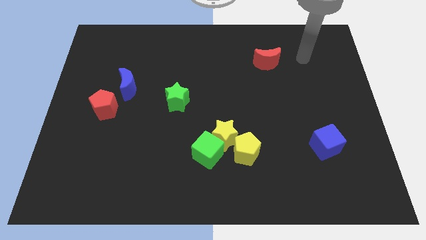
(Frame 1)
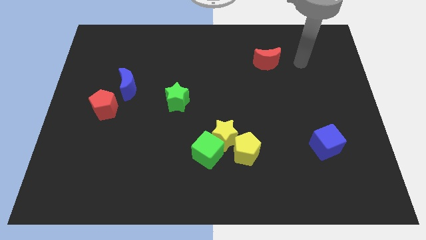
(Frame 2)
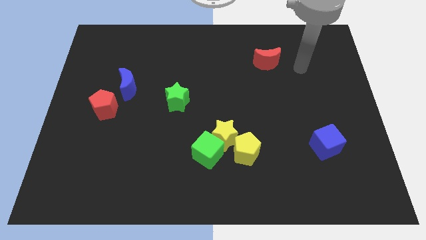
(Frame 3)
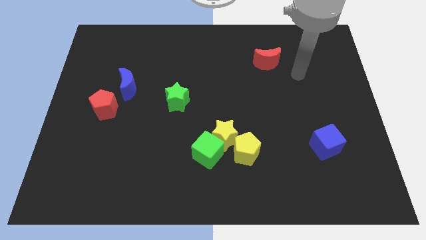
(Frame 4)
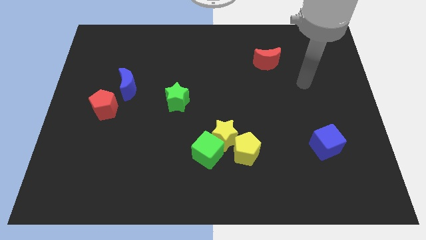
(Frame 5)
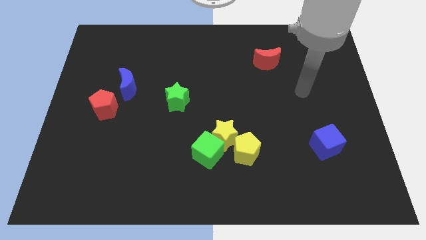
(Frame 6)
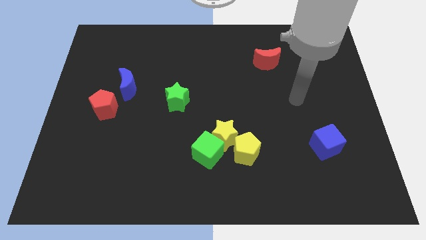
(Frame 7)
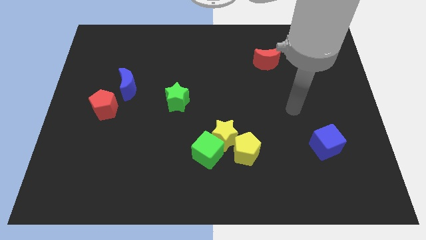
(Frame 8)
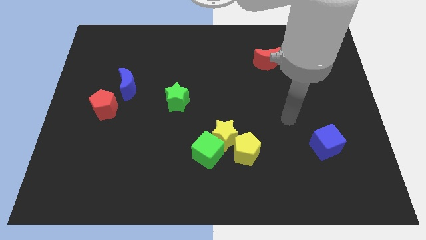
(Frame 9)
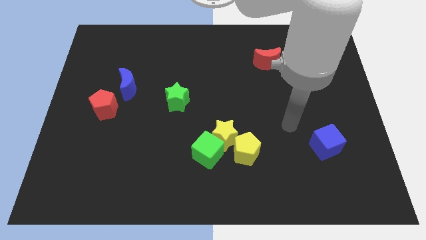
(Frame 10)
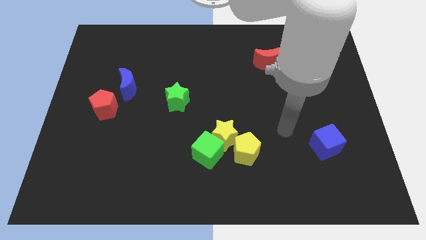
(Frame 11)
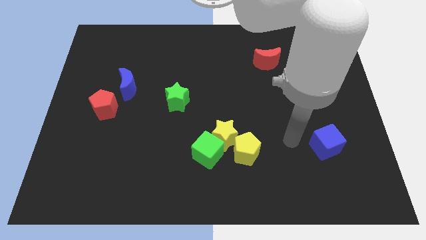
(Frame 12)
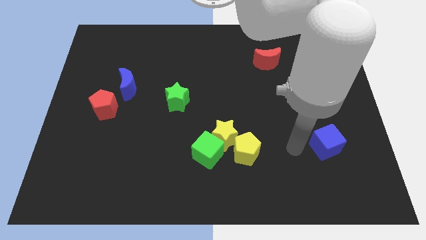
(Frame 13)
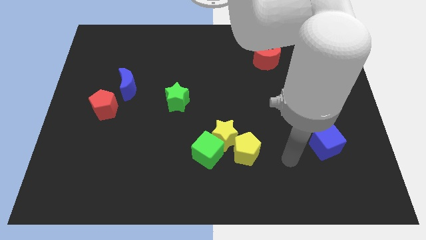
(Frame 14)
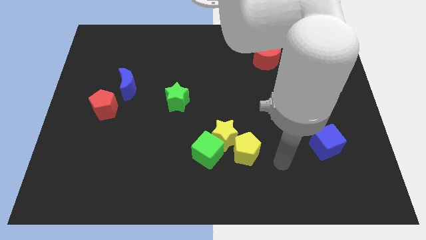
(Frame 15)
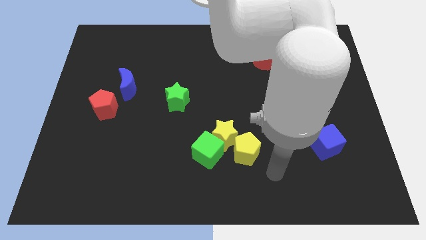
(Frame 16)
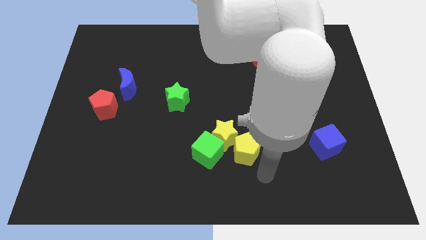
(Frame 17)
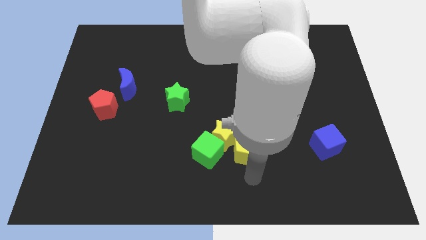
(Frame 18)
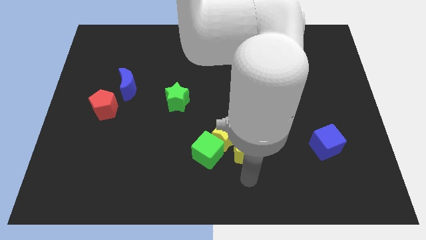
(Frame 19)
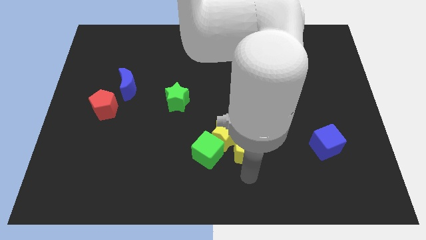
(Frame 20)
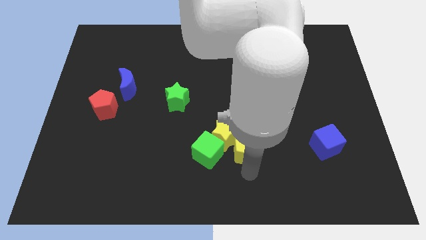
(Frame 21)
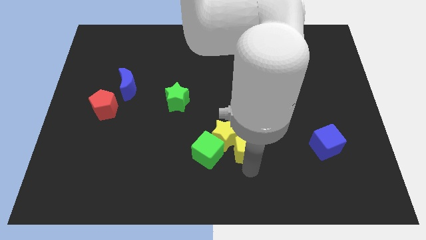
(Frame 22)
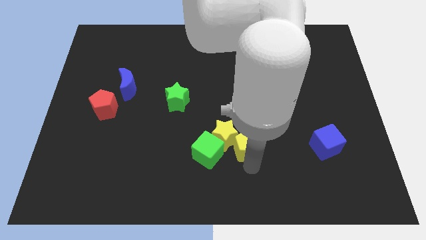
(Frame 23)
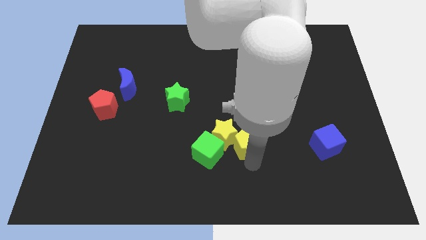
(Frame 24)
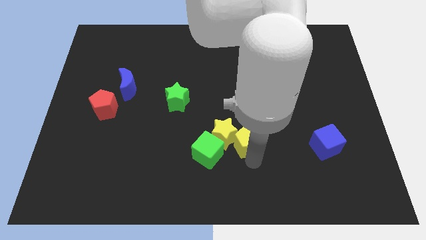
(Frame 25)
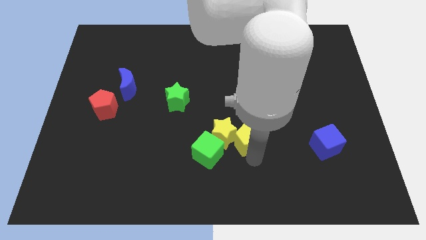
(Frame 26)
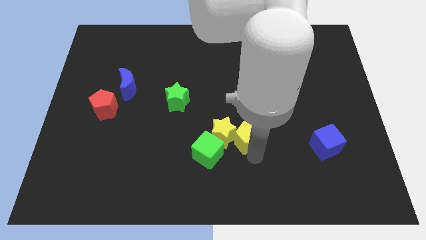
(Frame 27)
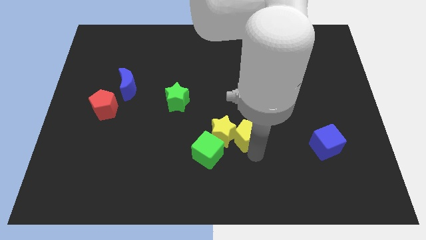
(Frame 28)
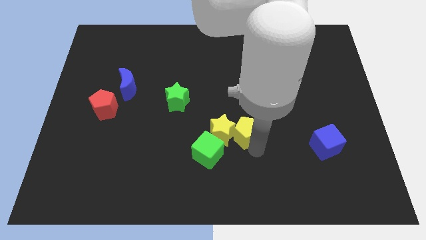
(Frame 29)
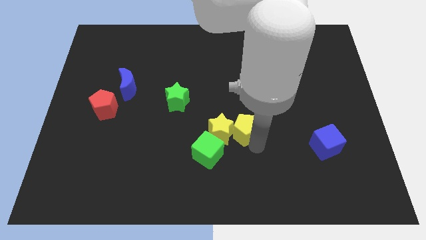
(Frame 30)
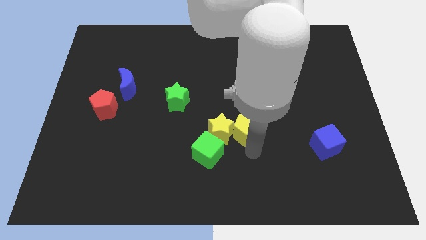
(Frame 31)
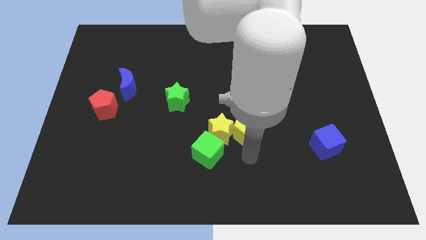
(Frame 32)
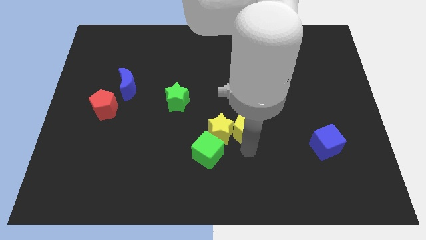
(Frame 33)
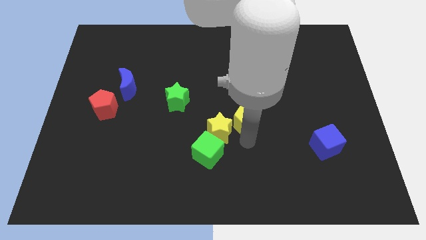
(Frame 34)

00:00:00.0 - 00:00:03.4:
slide the yellow pentagon a bit up

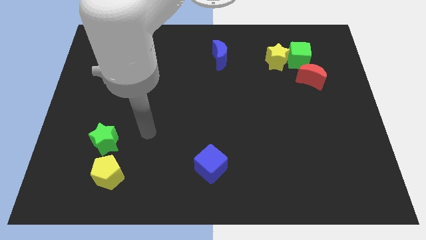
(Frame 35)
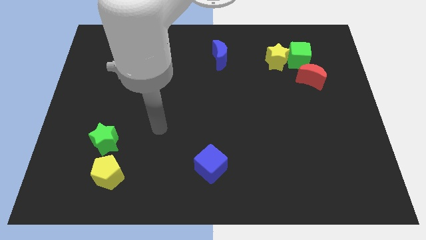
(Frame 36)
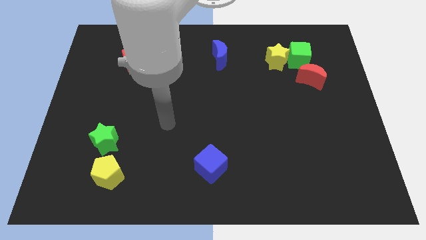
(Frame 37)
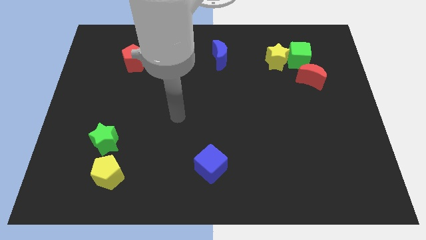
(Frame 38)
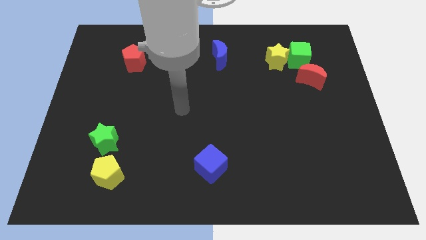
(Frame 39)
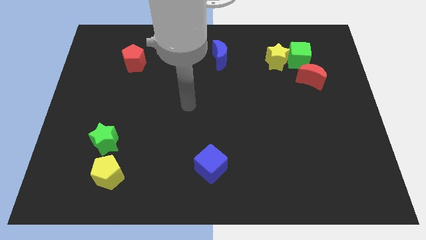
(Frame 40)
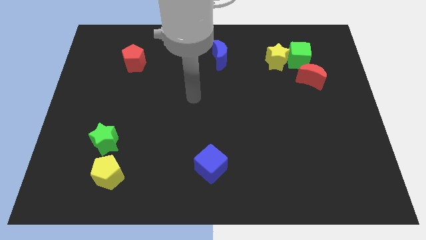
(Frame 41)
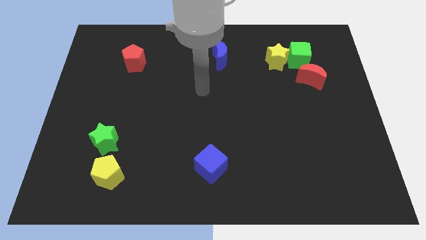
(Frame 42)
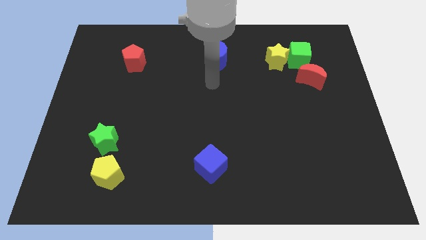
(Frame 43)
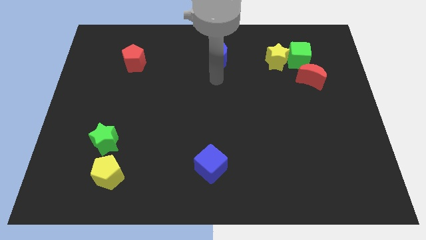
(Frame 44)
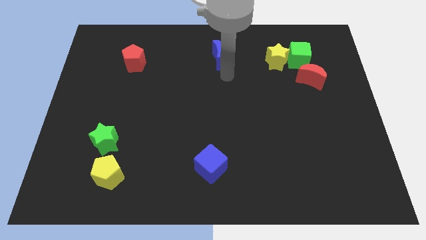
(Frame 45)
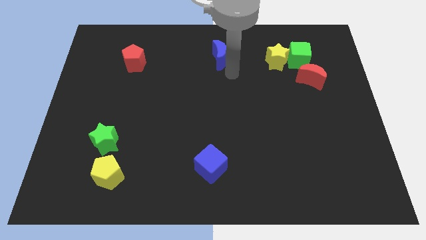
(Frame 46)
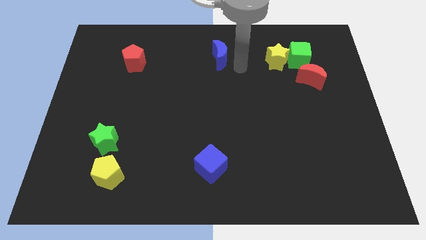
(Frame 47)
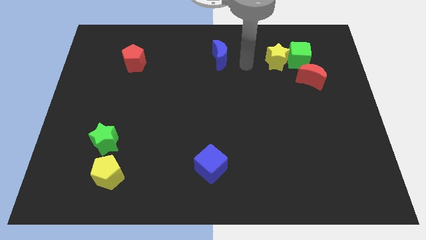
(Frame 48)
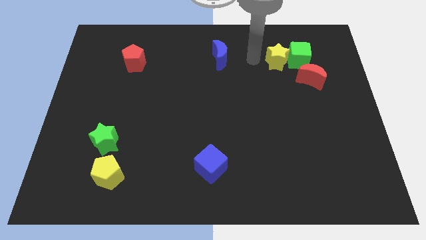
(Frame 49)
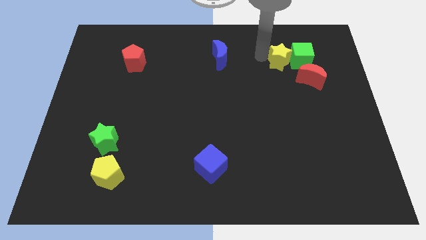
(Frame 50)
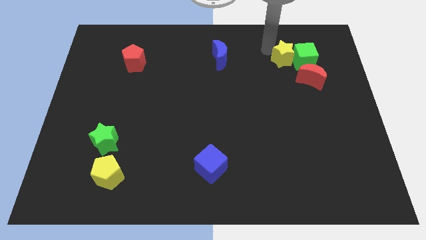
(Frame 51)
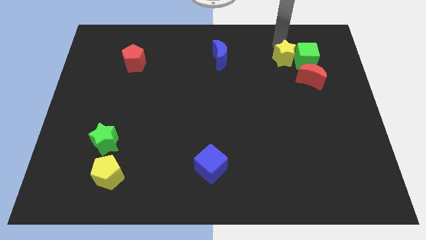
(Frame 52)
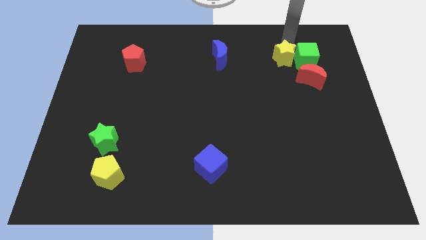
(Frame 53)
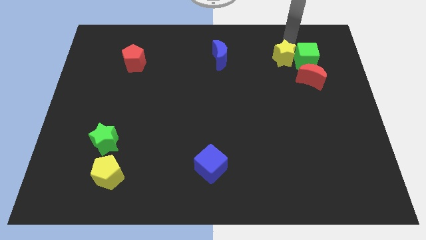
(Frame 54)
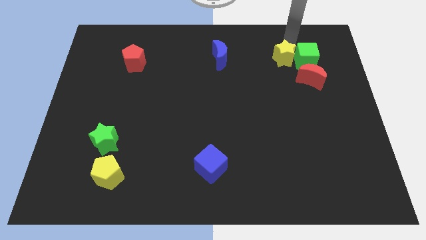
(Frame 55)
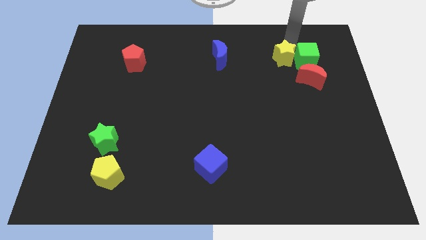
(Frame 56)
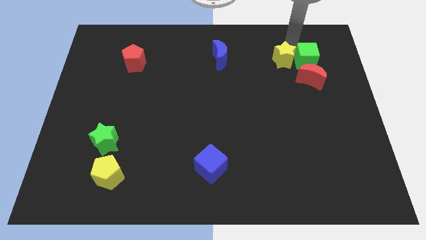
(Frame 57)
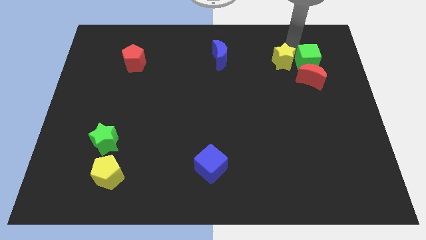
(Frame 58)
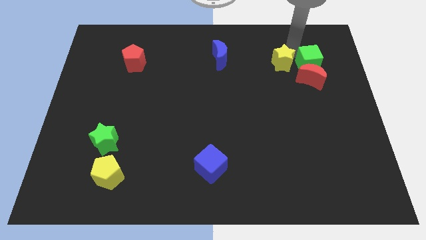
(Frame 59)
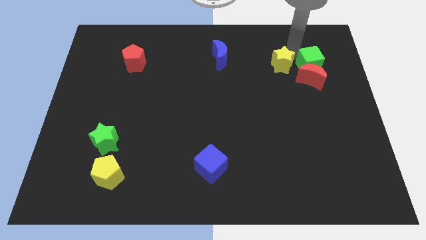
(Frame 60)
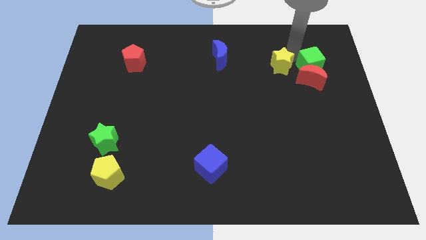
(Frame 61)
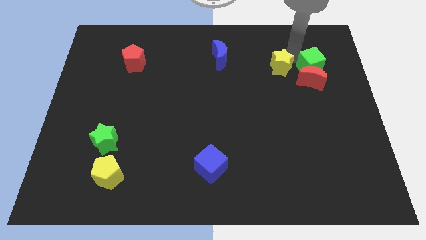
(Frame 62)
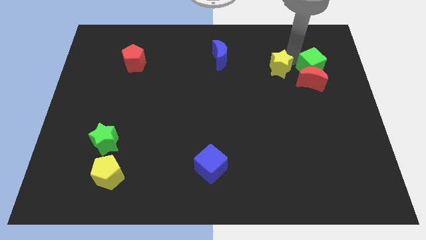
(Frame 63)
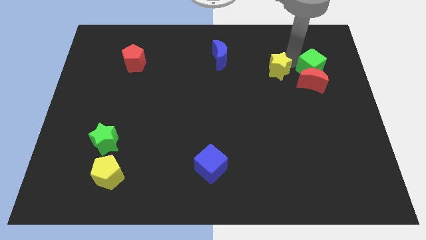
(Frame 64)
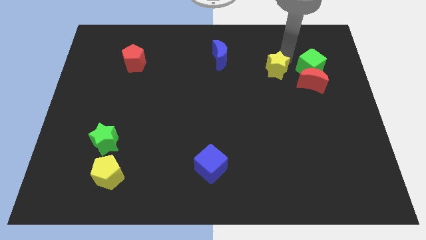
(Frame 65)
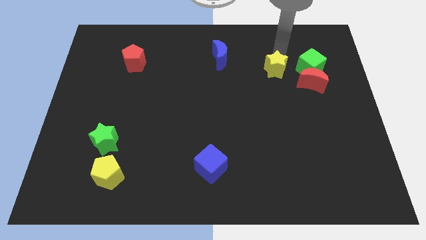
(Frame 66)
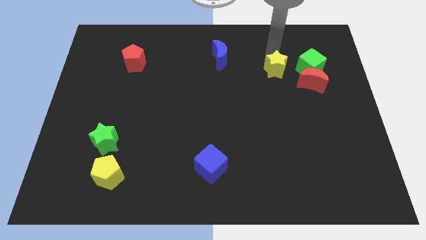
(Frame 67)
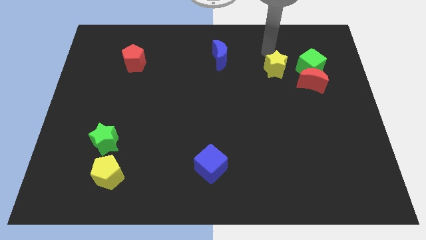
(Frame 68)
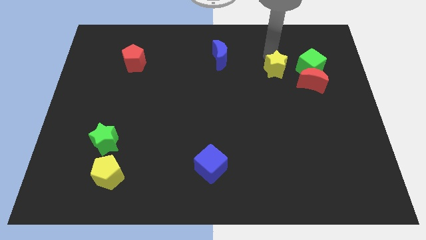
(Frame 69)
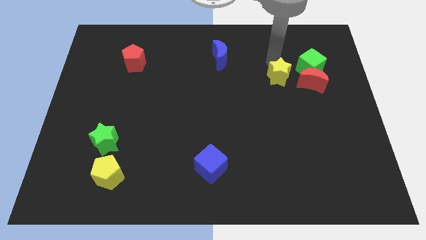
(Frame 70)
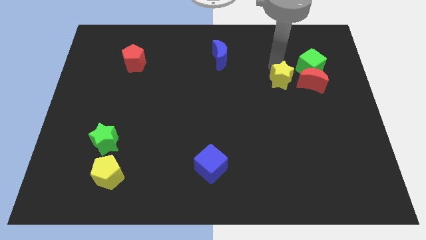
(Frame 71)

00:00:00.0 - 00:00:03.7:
push the yellow star a little down

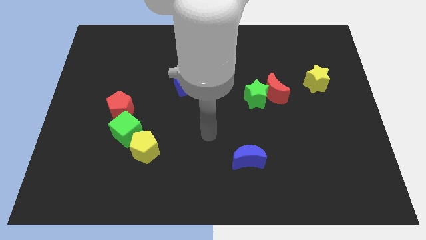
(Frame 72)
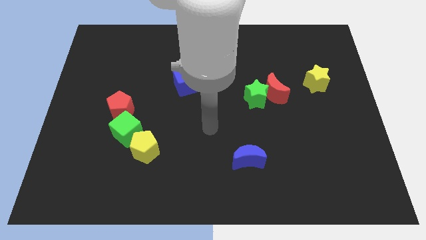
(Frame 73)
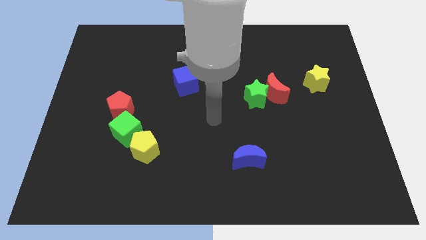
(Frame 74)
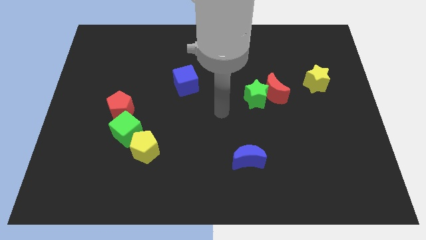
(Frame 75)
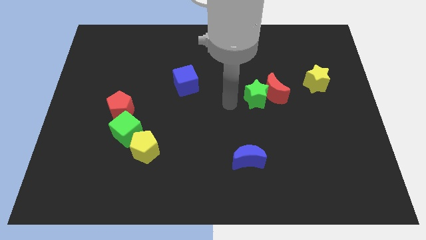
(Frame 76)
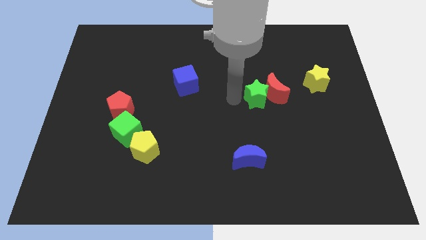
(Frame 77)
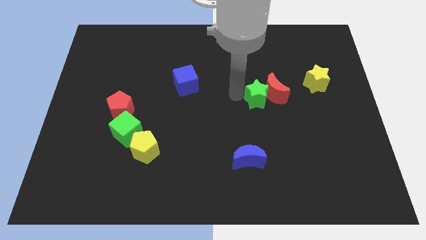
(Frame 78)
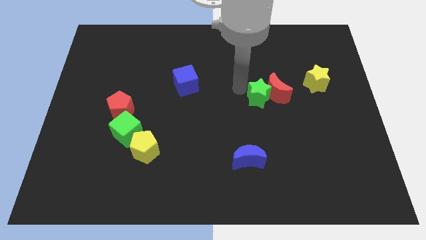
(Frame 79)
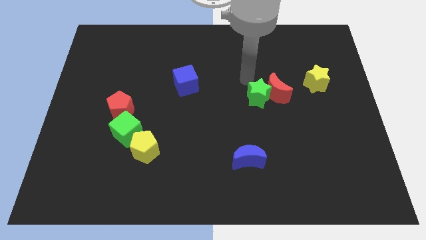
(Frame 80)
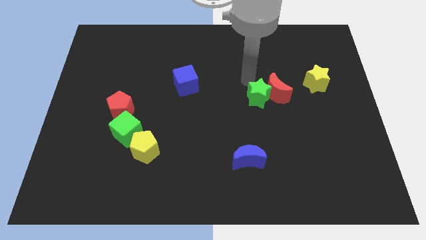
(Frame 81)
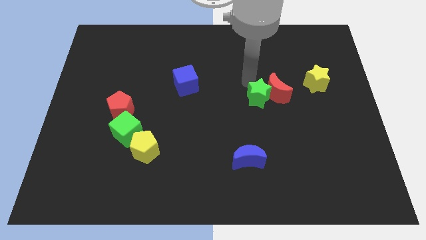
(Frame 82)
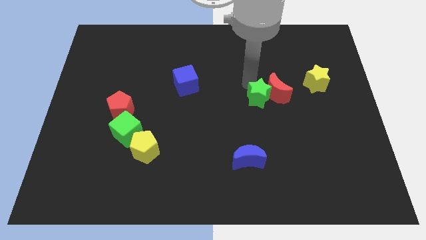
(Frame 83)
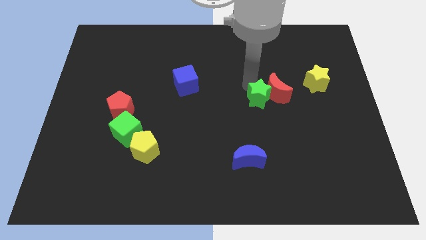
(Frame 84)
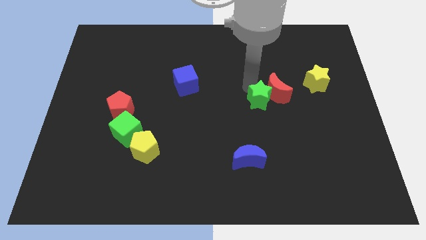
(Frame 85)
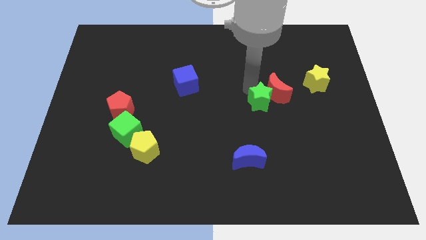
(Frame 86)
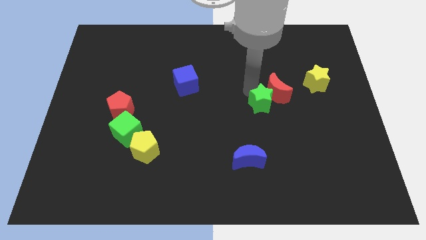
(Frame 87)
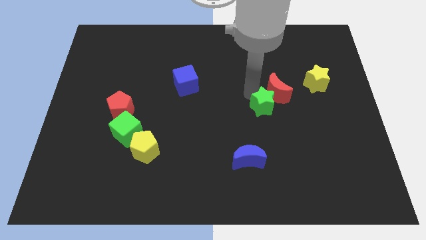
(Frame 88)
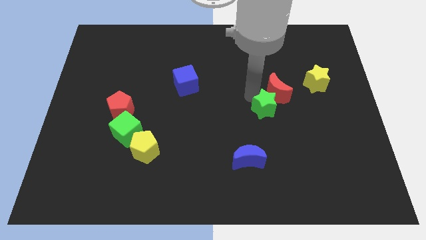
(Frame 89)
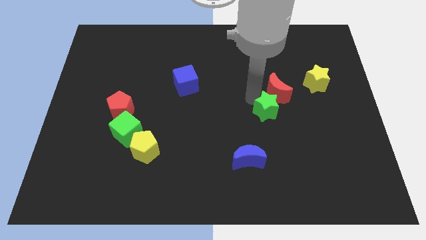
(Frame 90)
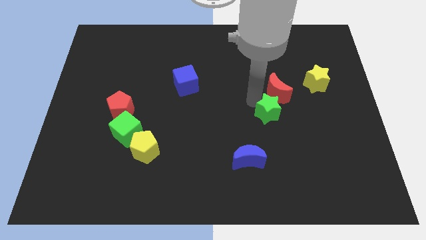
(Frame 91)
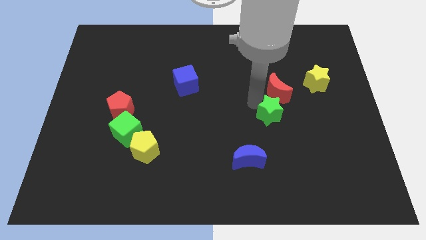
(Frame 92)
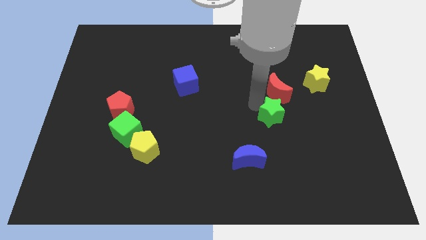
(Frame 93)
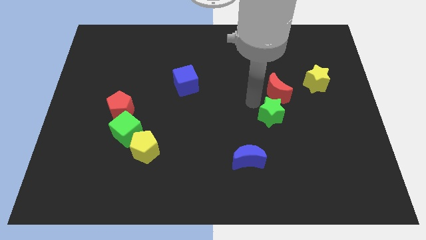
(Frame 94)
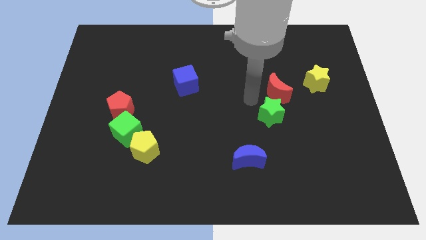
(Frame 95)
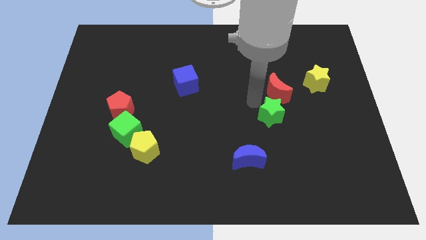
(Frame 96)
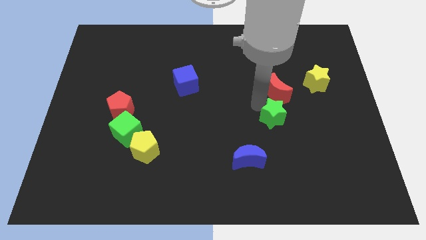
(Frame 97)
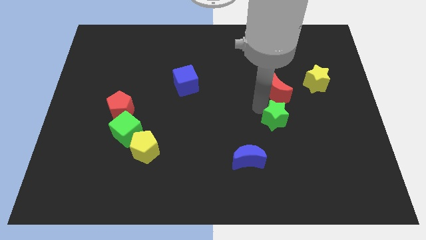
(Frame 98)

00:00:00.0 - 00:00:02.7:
move the green star downwards and then to the right a bit
